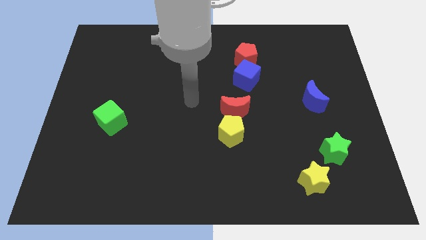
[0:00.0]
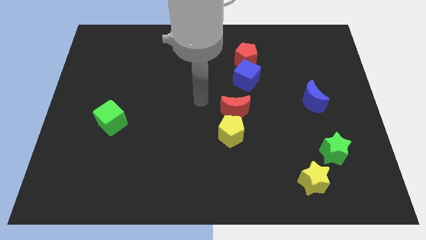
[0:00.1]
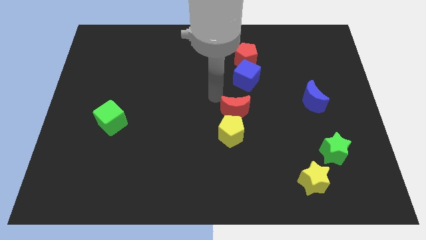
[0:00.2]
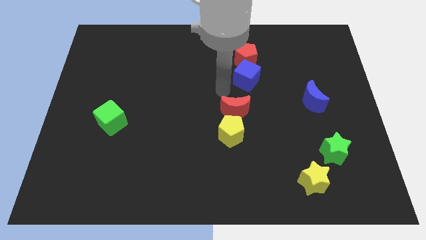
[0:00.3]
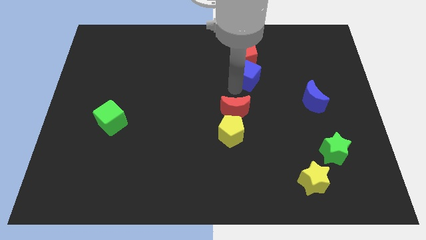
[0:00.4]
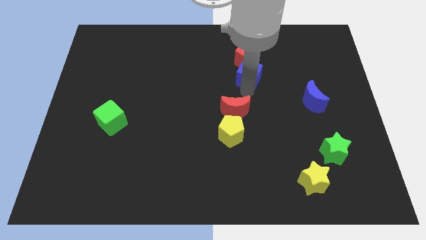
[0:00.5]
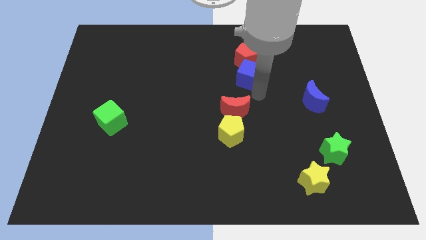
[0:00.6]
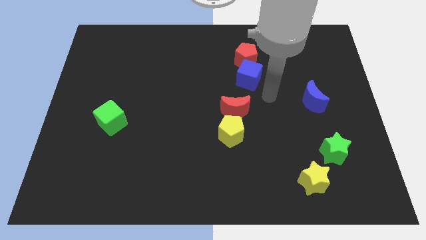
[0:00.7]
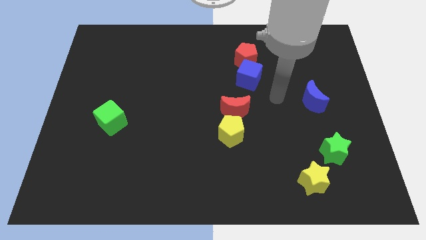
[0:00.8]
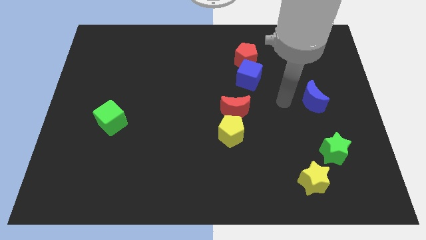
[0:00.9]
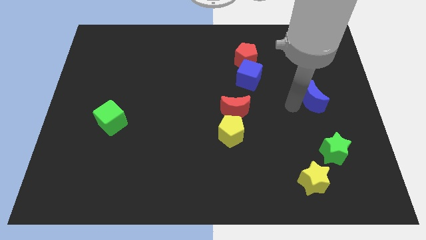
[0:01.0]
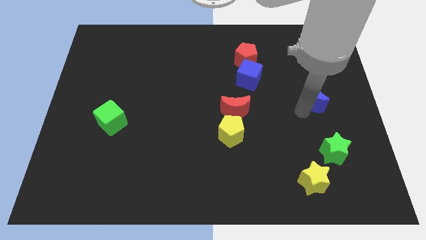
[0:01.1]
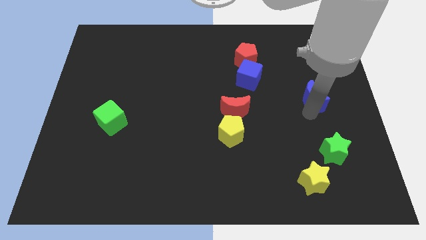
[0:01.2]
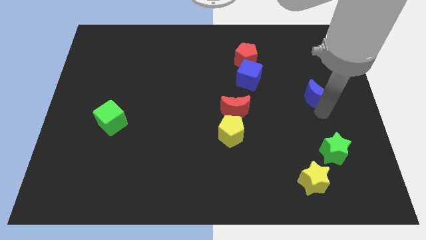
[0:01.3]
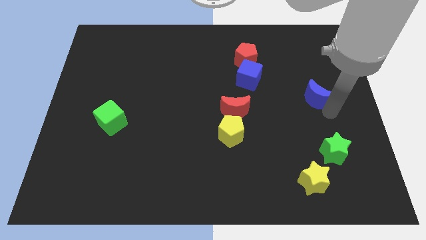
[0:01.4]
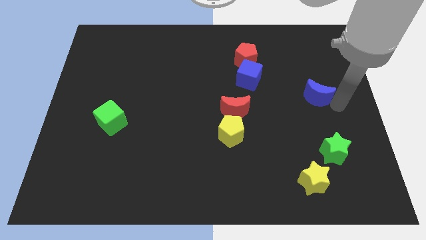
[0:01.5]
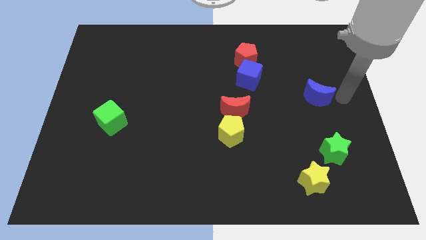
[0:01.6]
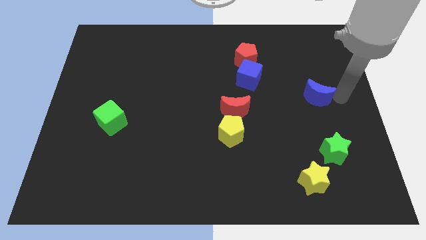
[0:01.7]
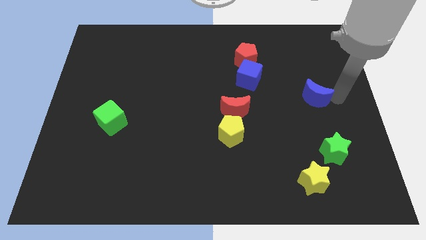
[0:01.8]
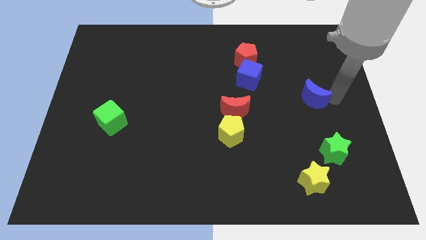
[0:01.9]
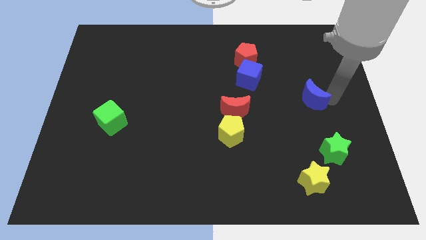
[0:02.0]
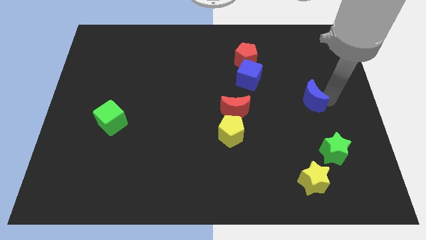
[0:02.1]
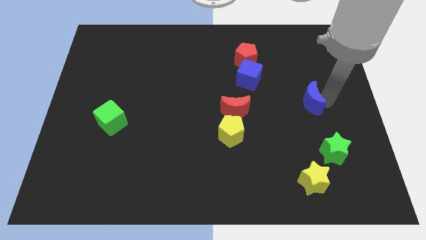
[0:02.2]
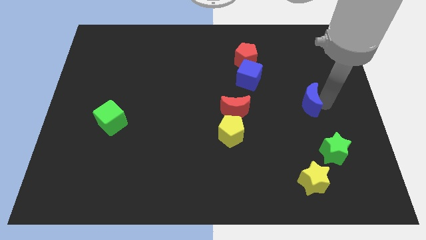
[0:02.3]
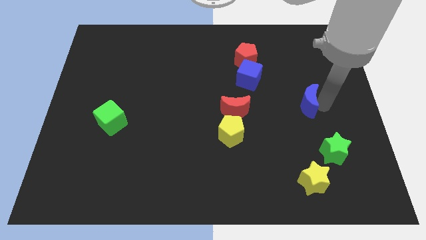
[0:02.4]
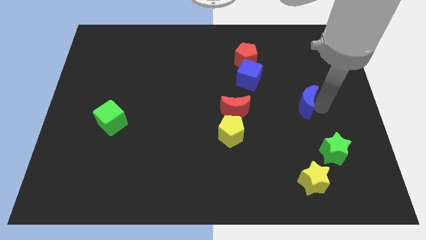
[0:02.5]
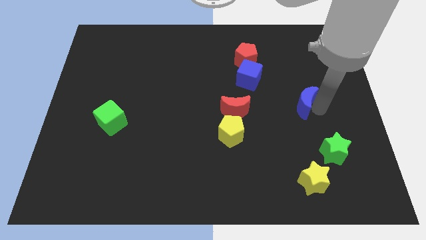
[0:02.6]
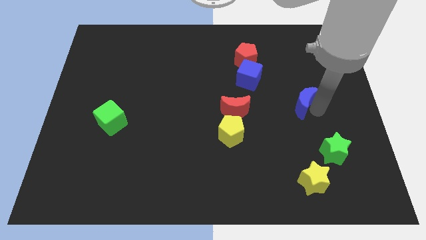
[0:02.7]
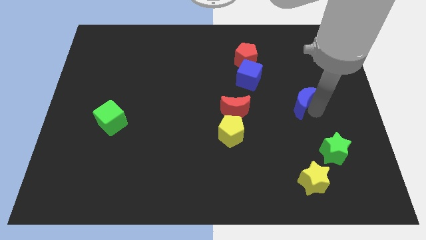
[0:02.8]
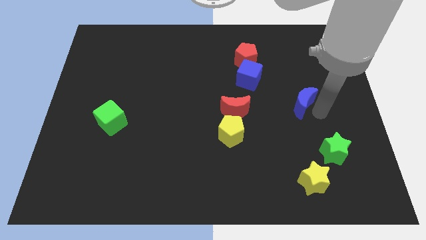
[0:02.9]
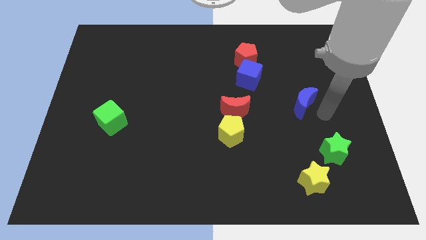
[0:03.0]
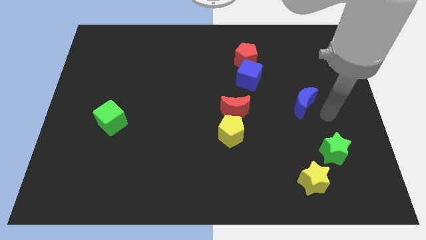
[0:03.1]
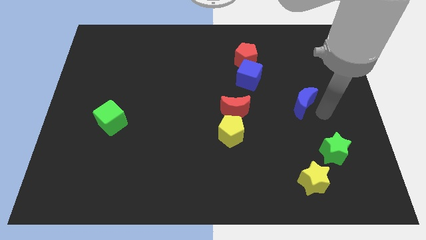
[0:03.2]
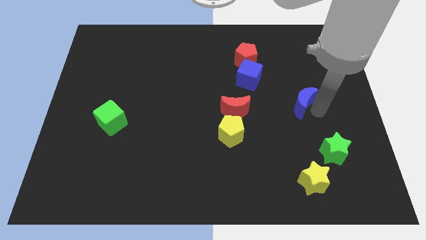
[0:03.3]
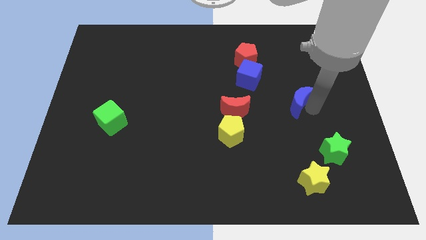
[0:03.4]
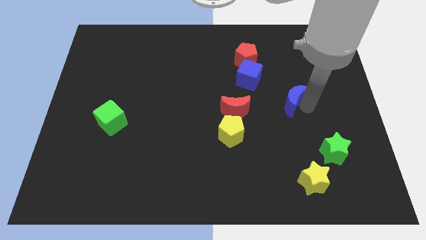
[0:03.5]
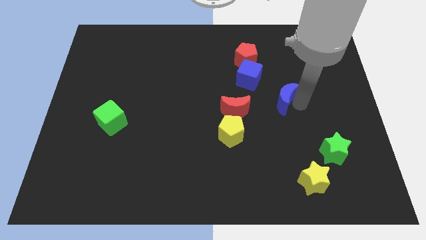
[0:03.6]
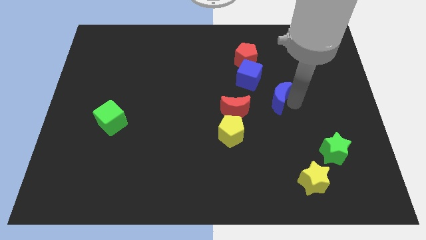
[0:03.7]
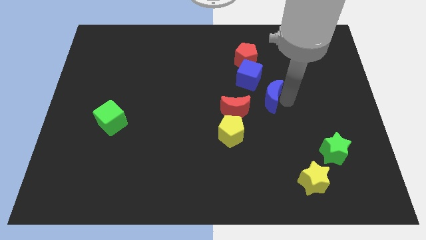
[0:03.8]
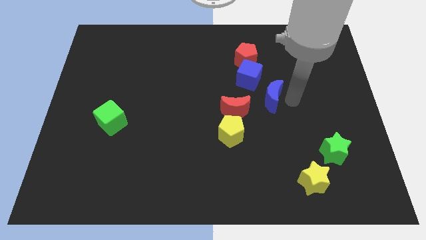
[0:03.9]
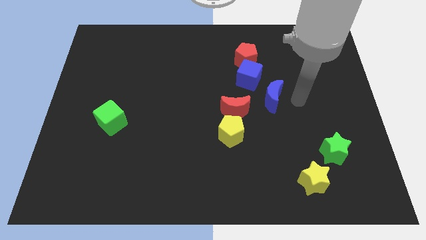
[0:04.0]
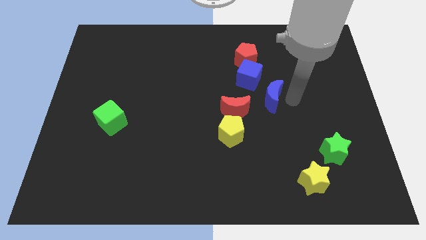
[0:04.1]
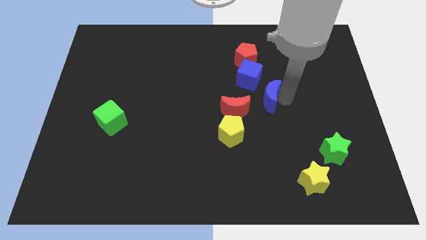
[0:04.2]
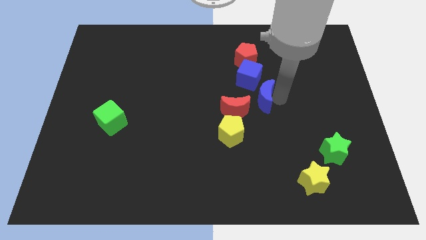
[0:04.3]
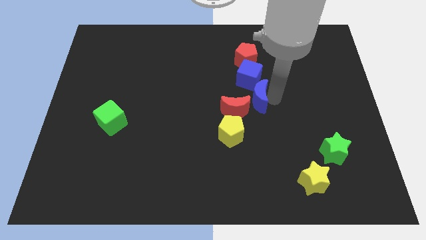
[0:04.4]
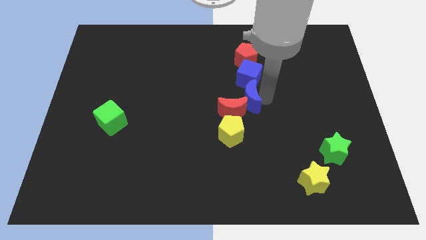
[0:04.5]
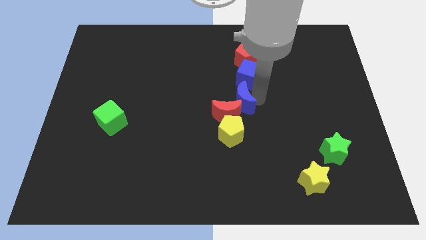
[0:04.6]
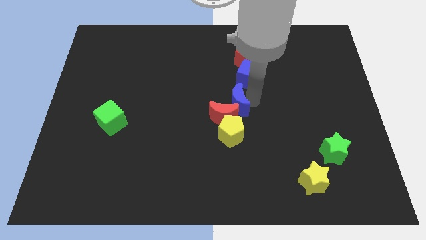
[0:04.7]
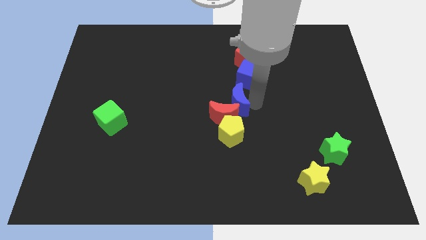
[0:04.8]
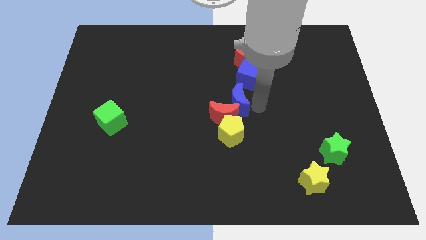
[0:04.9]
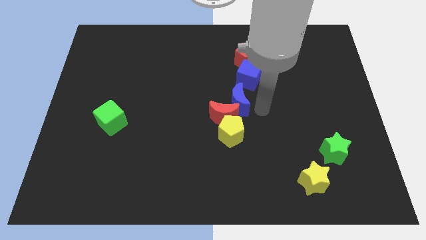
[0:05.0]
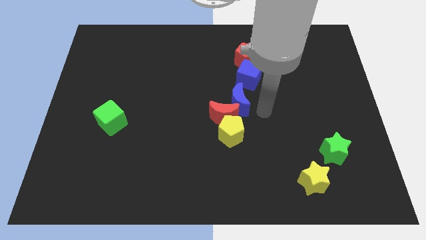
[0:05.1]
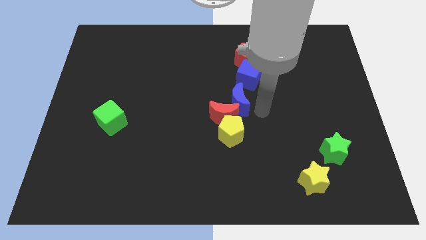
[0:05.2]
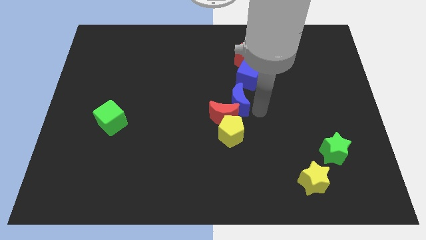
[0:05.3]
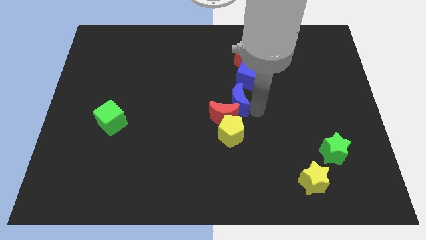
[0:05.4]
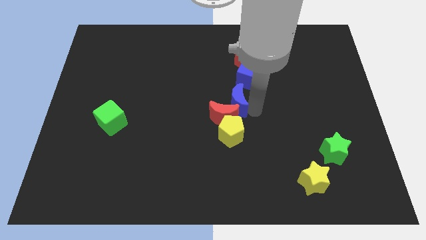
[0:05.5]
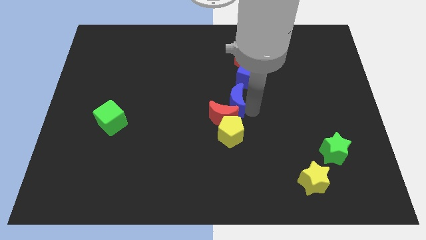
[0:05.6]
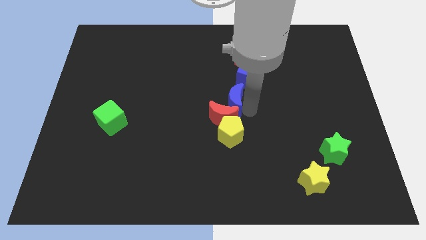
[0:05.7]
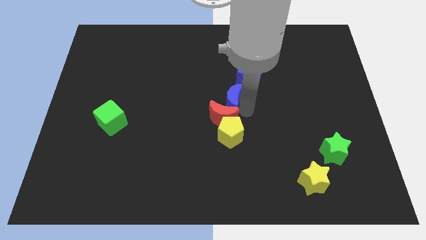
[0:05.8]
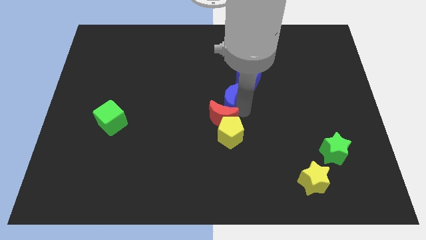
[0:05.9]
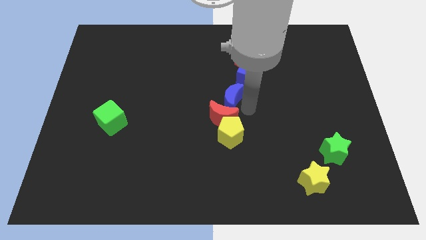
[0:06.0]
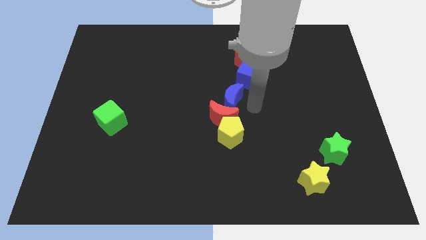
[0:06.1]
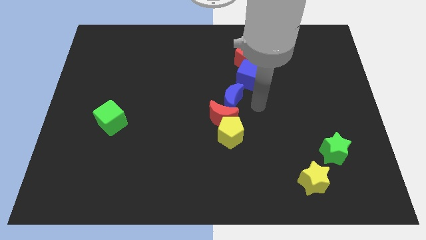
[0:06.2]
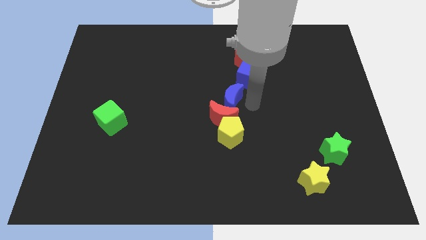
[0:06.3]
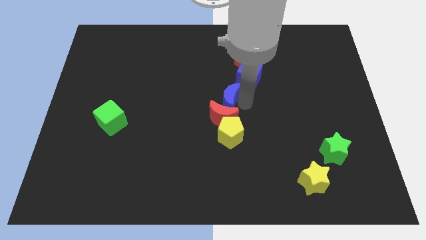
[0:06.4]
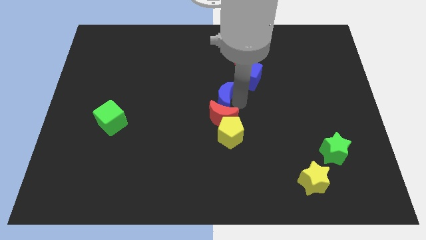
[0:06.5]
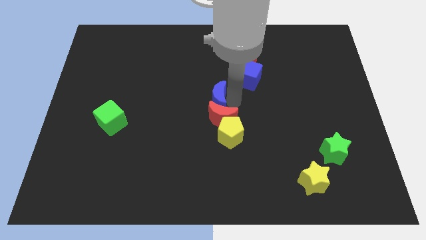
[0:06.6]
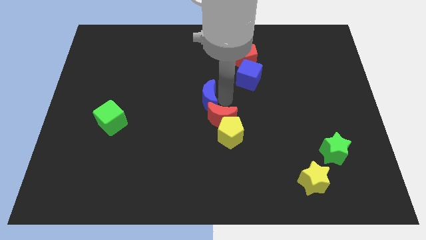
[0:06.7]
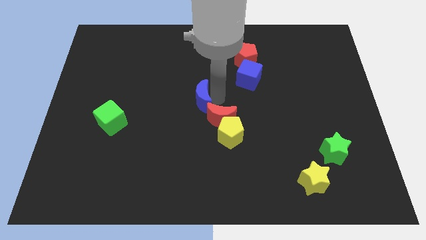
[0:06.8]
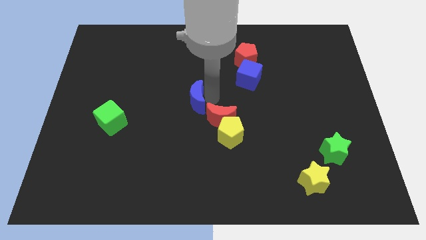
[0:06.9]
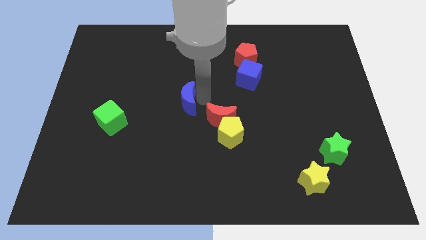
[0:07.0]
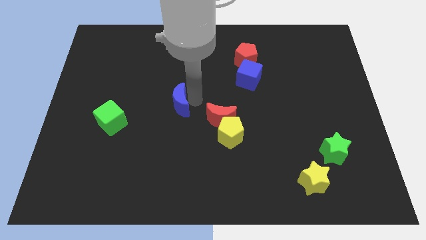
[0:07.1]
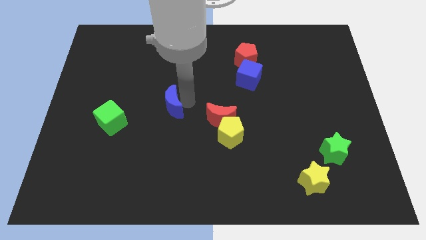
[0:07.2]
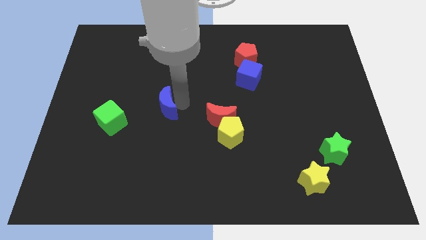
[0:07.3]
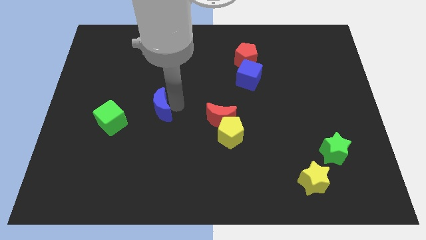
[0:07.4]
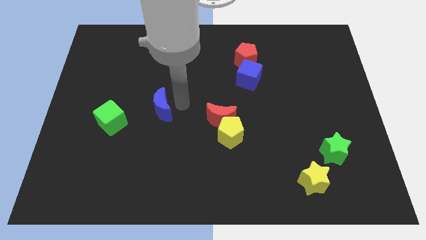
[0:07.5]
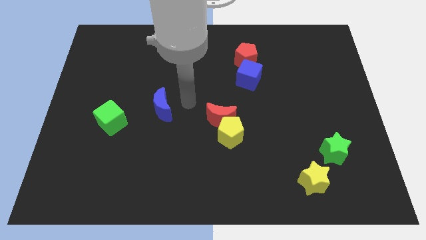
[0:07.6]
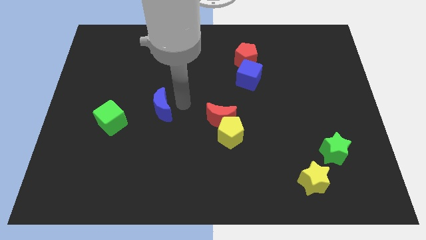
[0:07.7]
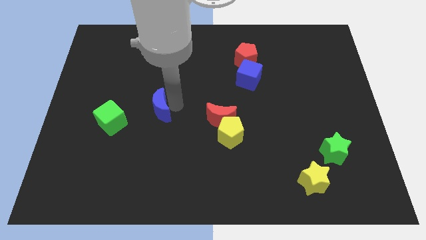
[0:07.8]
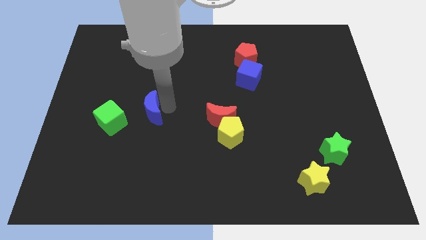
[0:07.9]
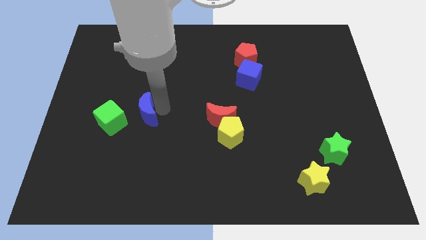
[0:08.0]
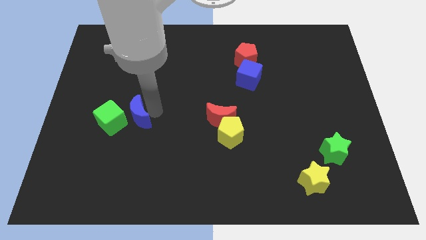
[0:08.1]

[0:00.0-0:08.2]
put the blue moon close to the green cube
